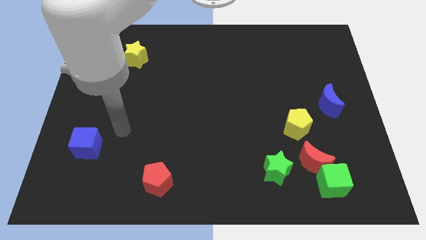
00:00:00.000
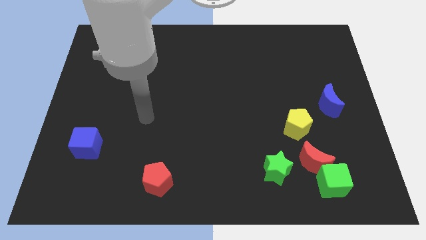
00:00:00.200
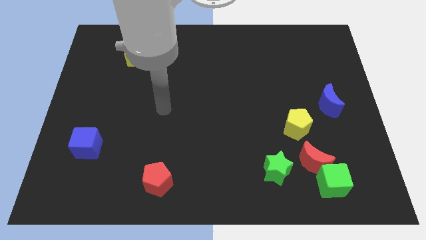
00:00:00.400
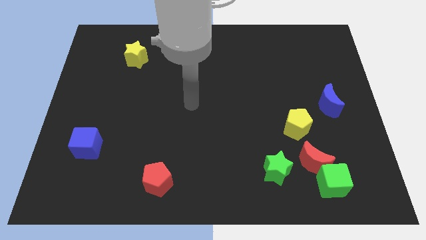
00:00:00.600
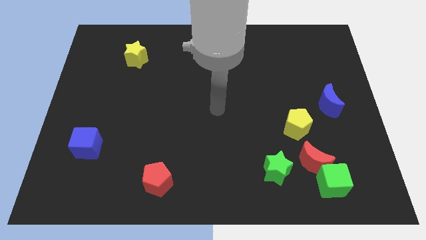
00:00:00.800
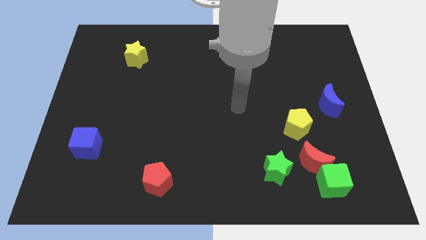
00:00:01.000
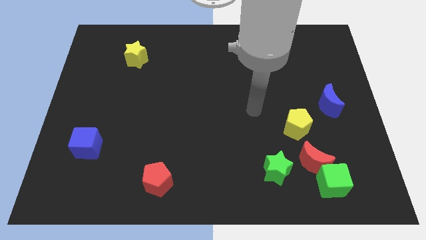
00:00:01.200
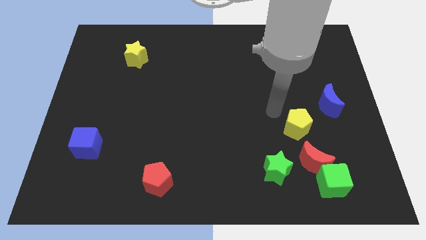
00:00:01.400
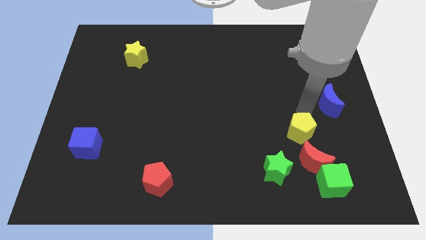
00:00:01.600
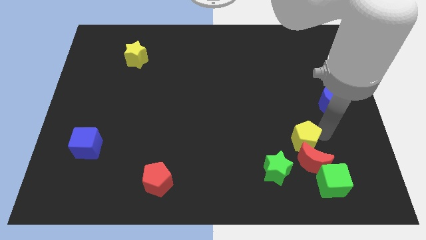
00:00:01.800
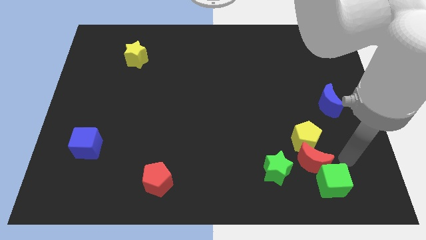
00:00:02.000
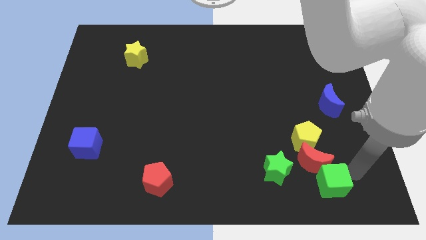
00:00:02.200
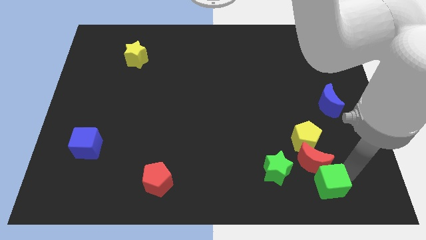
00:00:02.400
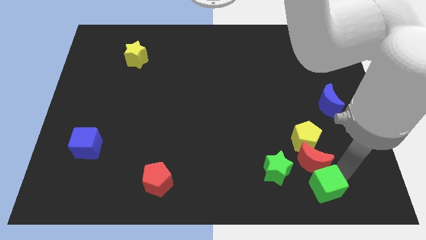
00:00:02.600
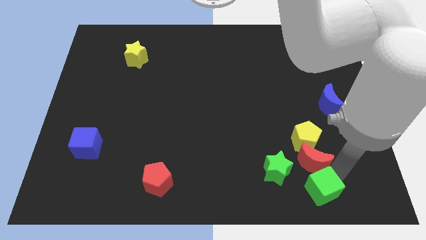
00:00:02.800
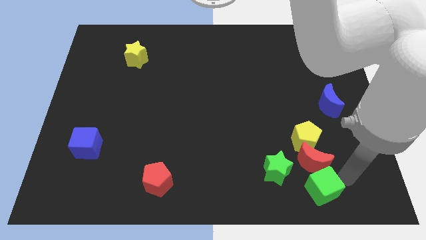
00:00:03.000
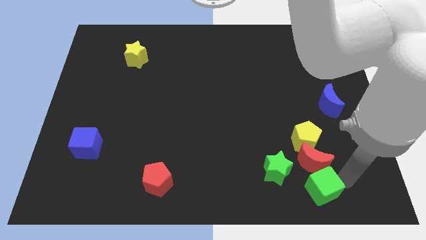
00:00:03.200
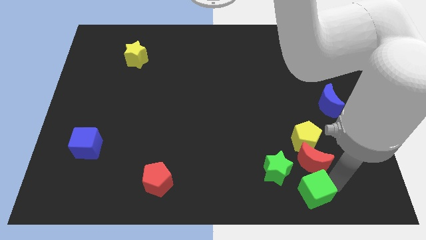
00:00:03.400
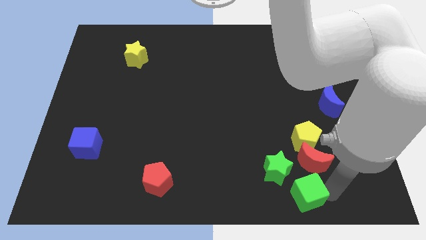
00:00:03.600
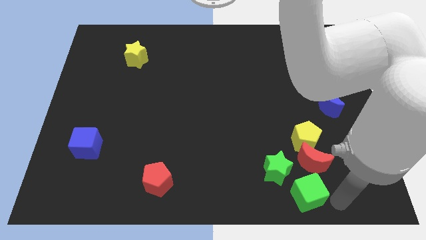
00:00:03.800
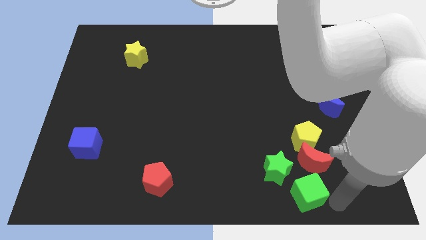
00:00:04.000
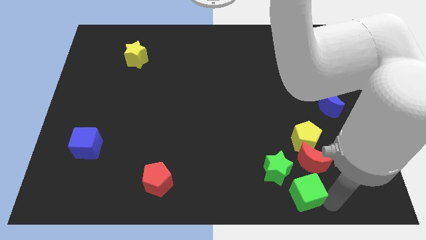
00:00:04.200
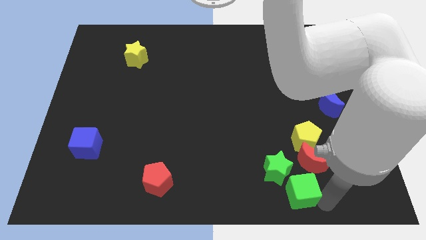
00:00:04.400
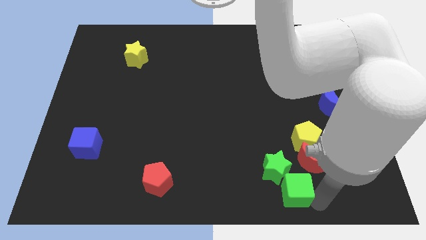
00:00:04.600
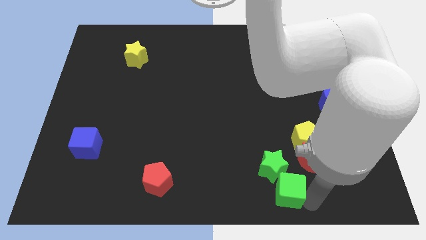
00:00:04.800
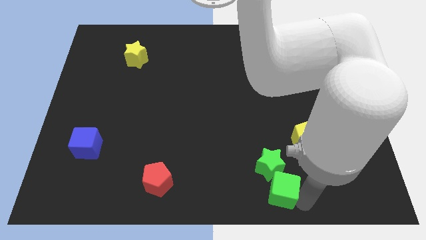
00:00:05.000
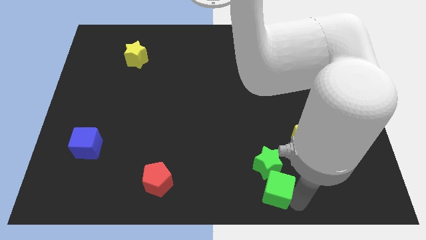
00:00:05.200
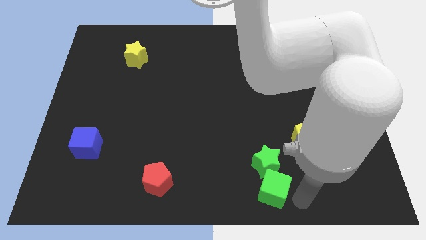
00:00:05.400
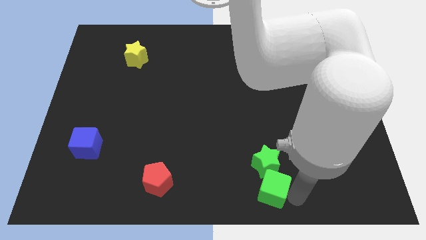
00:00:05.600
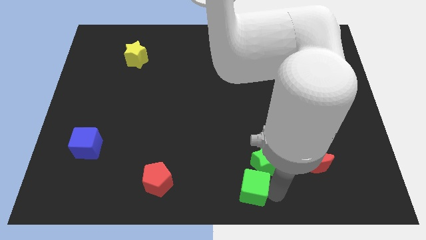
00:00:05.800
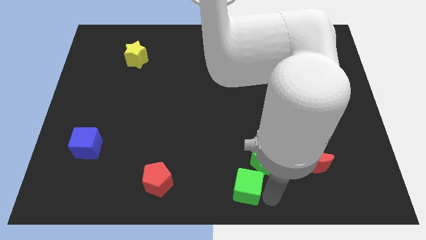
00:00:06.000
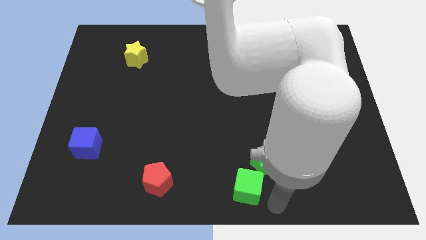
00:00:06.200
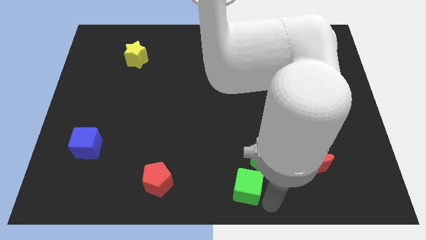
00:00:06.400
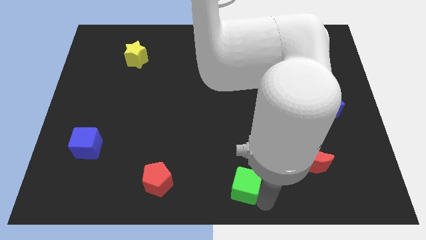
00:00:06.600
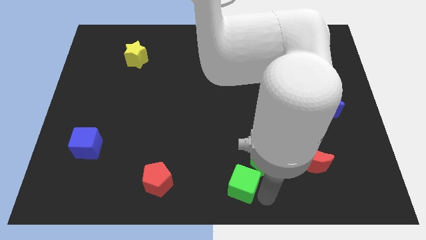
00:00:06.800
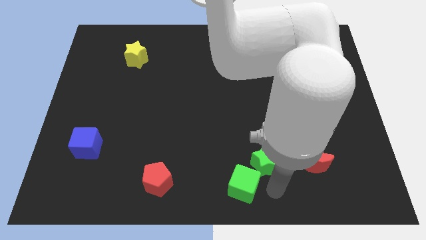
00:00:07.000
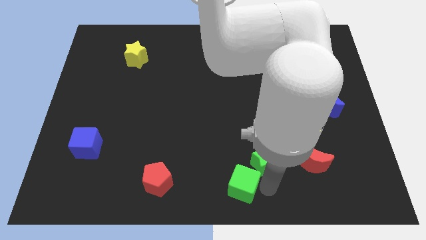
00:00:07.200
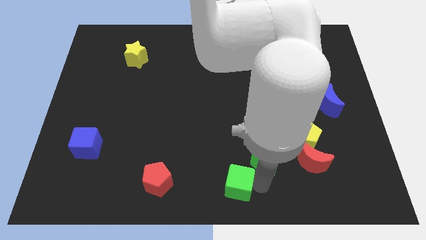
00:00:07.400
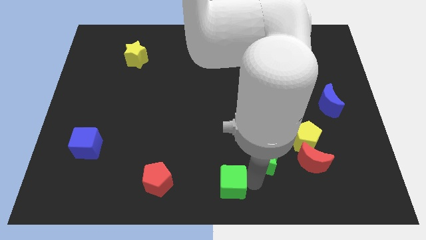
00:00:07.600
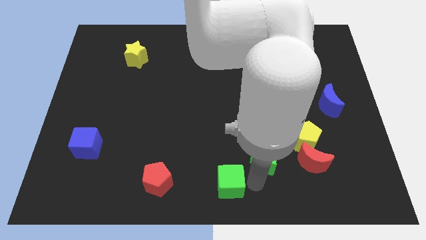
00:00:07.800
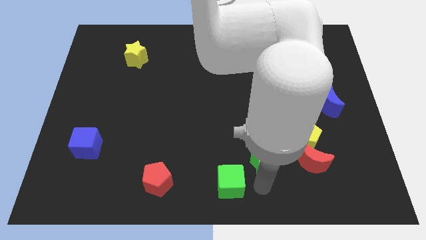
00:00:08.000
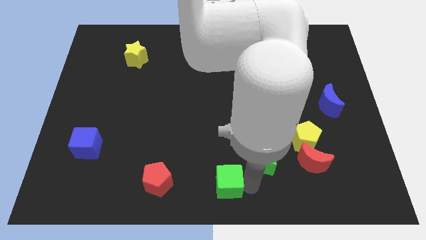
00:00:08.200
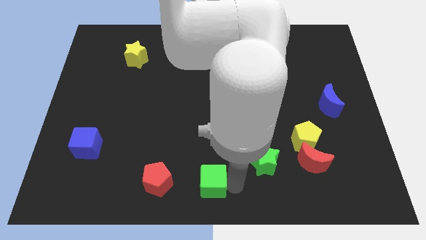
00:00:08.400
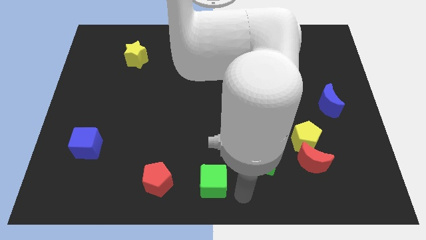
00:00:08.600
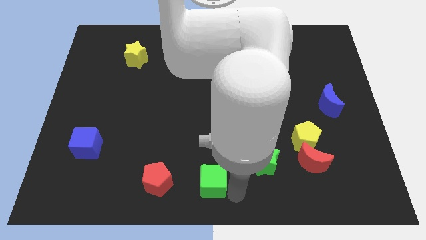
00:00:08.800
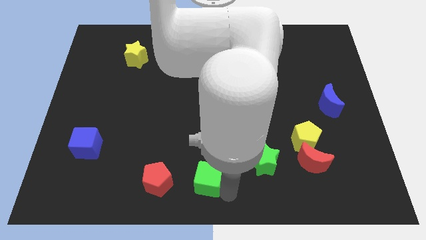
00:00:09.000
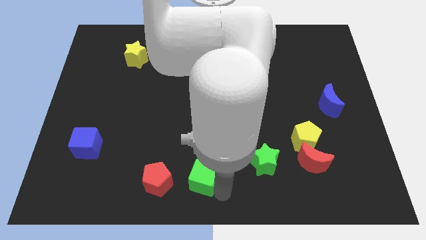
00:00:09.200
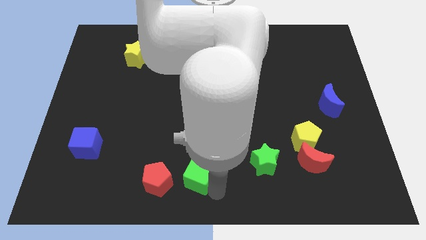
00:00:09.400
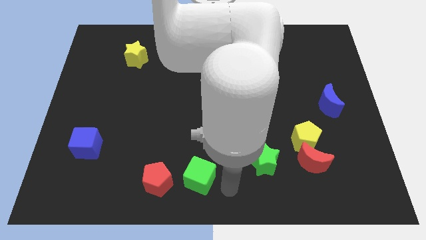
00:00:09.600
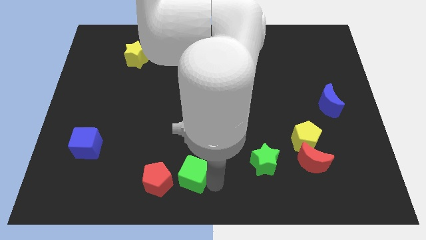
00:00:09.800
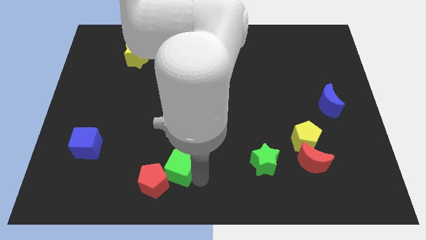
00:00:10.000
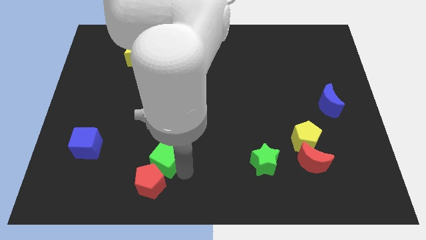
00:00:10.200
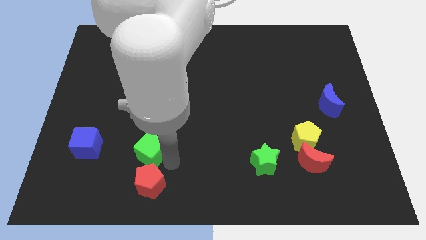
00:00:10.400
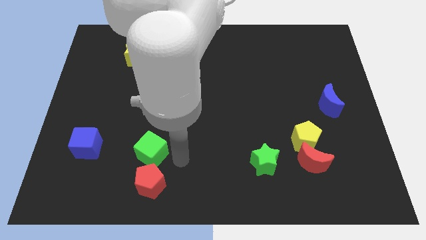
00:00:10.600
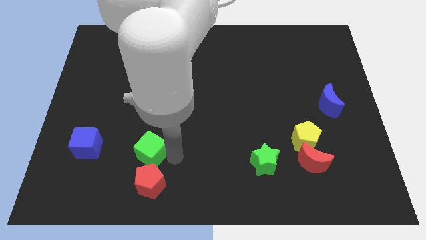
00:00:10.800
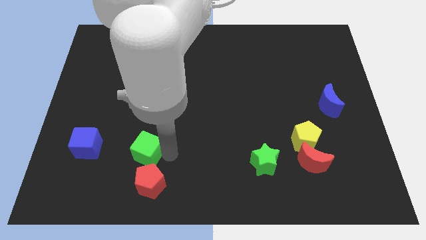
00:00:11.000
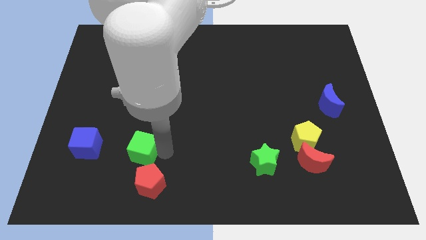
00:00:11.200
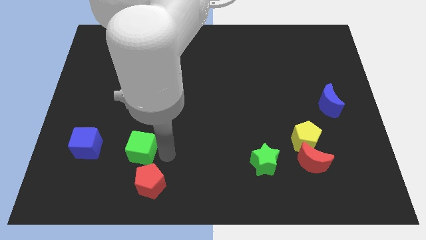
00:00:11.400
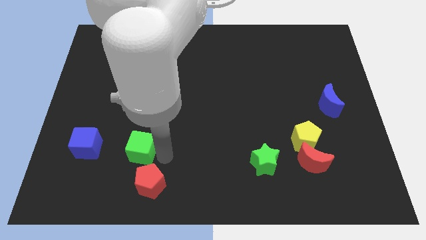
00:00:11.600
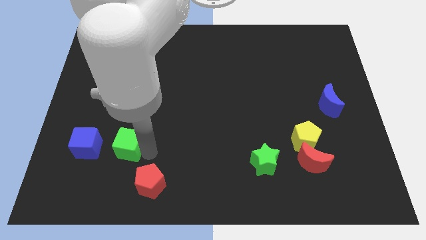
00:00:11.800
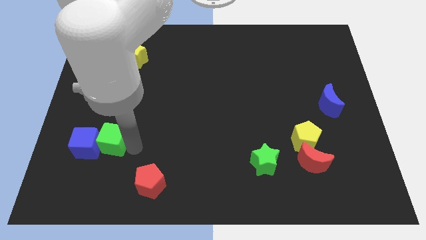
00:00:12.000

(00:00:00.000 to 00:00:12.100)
move the green cube next to the blue cube
